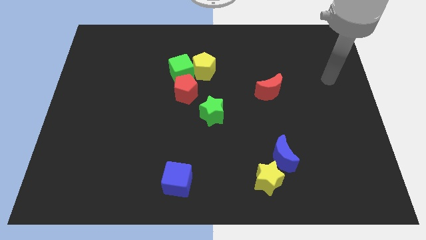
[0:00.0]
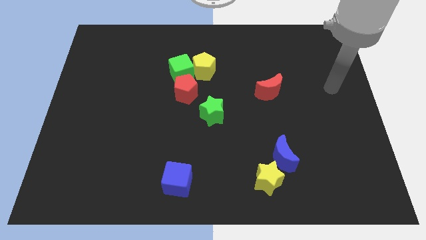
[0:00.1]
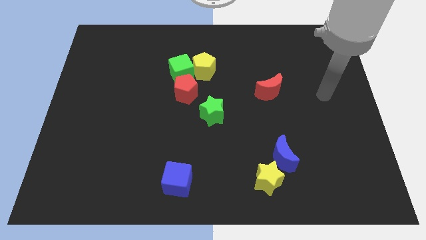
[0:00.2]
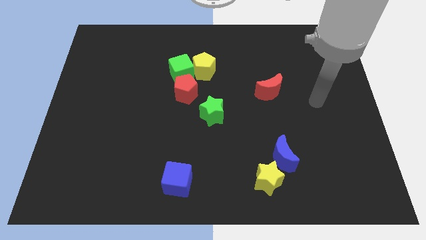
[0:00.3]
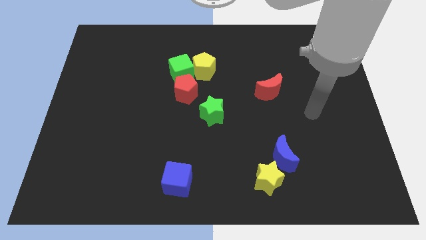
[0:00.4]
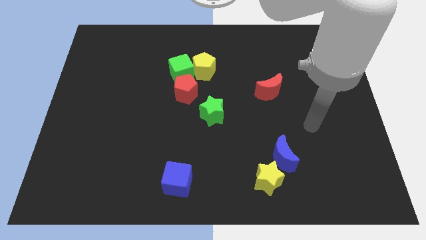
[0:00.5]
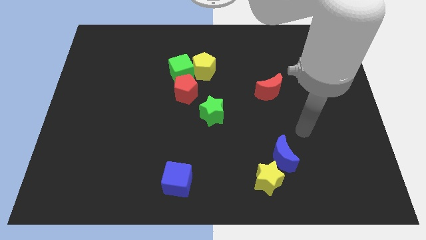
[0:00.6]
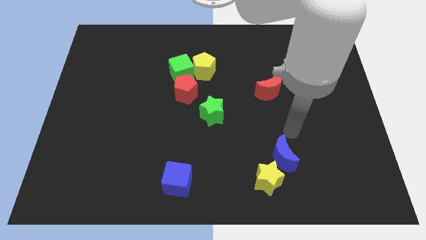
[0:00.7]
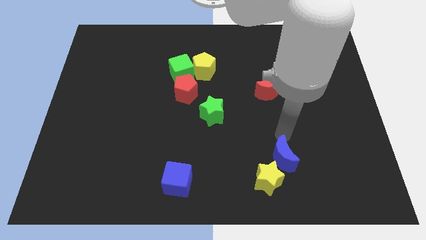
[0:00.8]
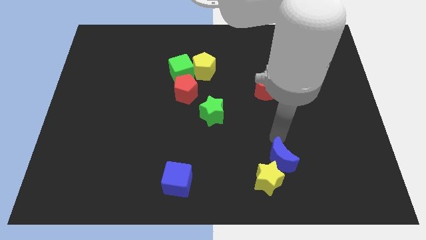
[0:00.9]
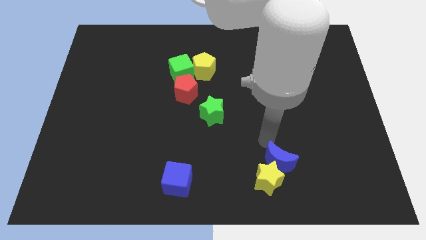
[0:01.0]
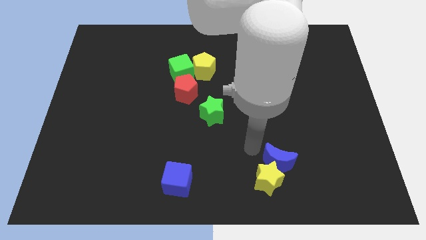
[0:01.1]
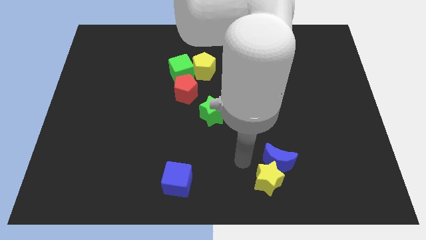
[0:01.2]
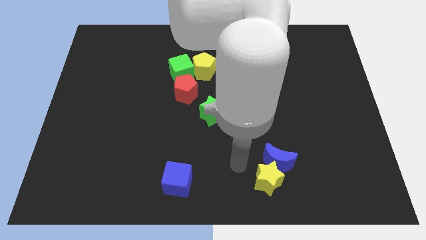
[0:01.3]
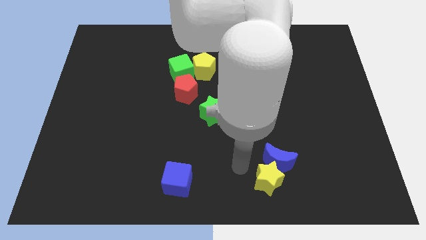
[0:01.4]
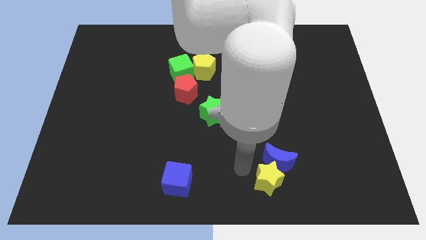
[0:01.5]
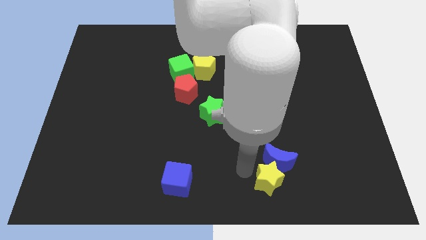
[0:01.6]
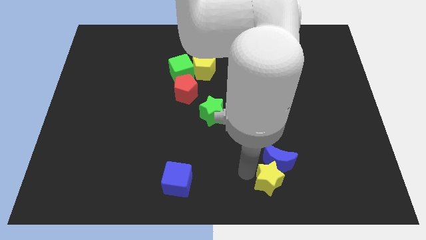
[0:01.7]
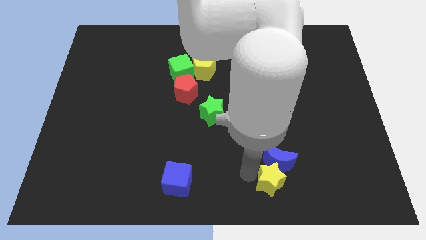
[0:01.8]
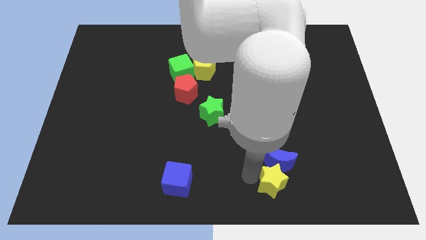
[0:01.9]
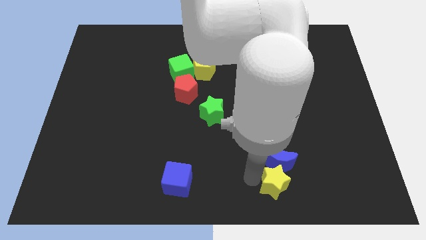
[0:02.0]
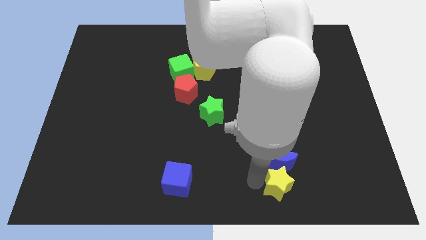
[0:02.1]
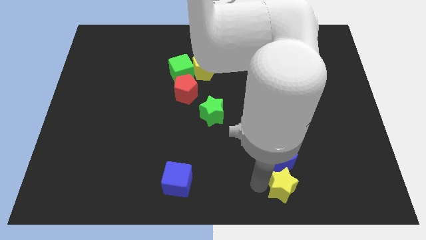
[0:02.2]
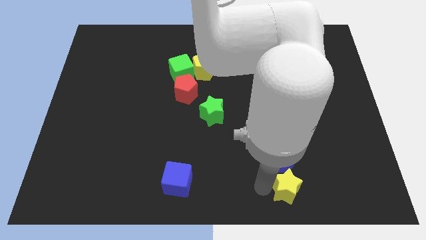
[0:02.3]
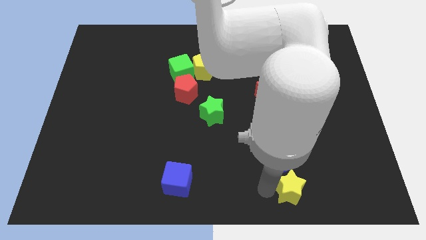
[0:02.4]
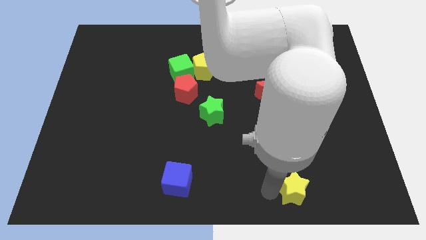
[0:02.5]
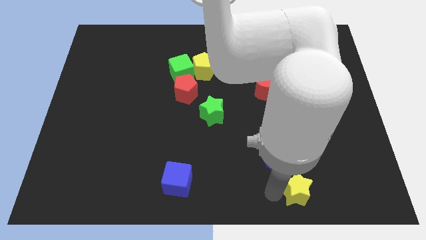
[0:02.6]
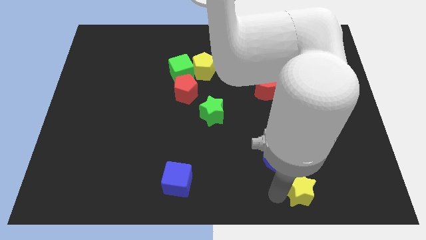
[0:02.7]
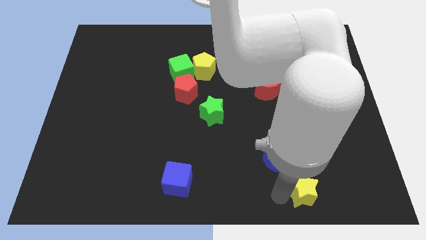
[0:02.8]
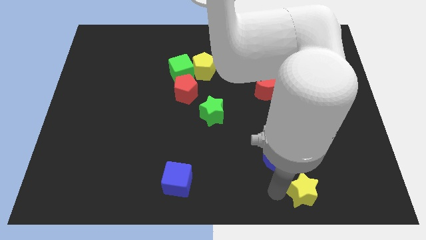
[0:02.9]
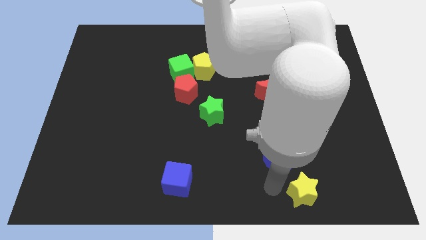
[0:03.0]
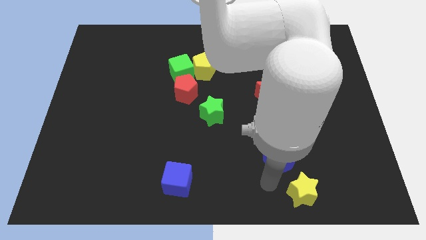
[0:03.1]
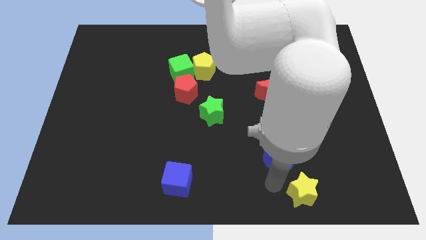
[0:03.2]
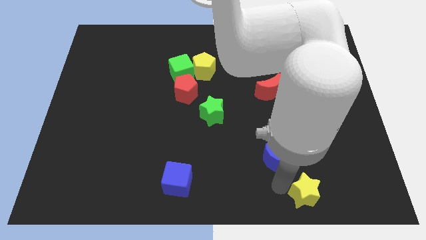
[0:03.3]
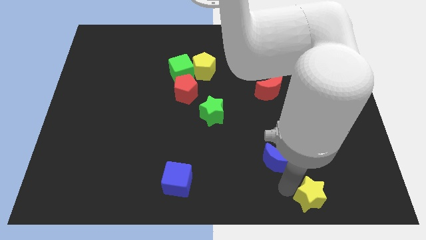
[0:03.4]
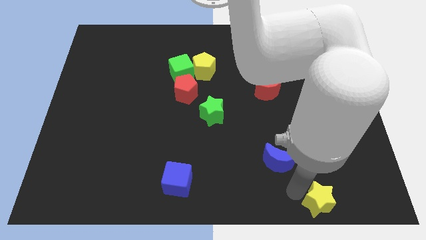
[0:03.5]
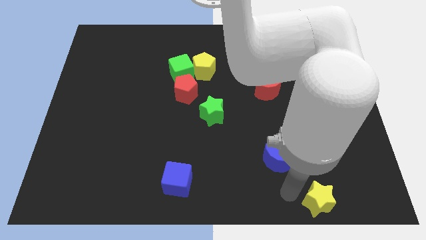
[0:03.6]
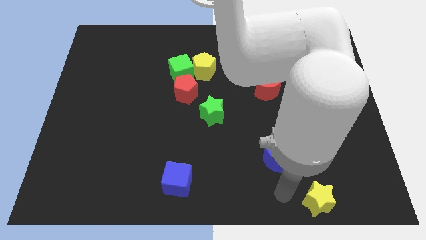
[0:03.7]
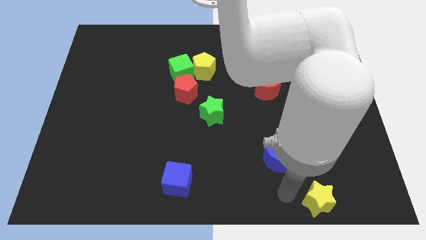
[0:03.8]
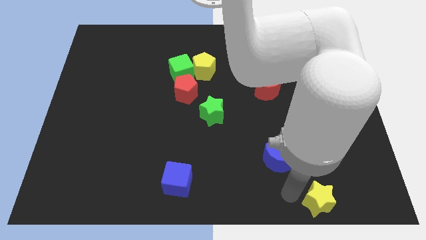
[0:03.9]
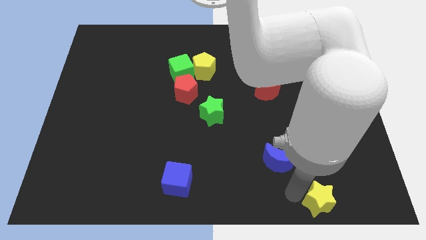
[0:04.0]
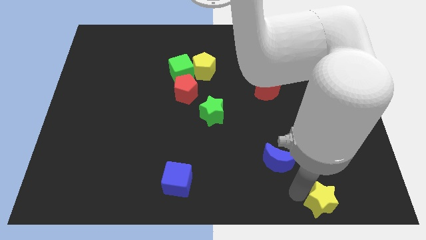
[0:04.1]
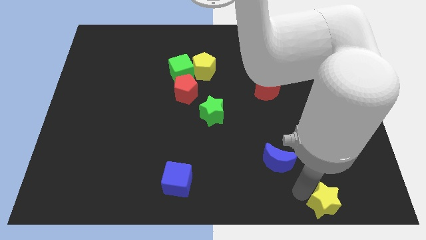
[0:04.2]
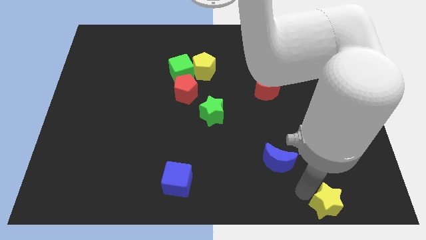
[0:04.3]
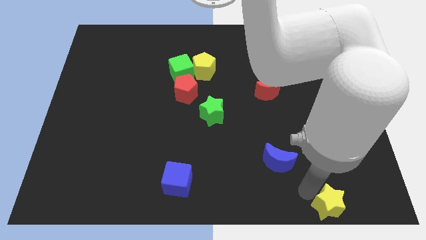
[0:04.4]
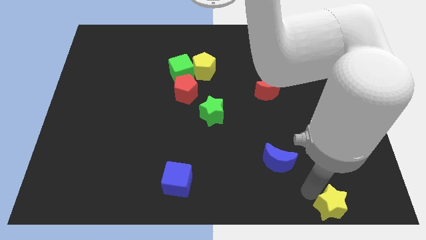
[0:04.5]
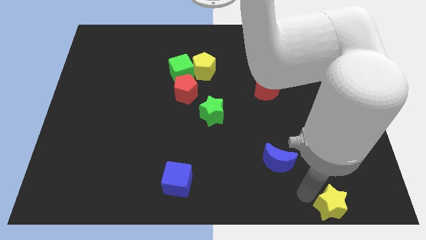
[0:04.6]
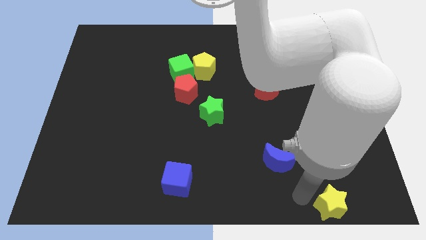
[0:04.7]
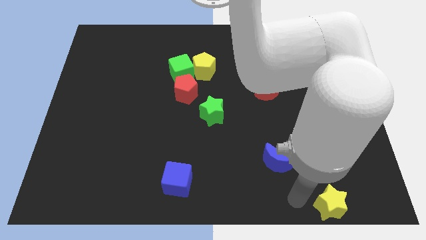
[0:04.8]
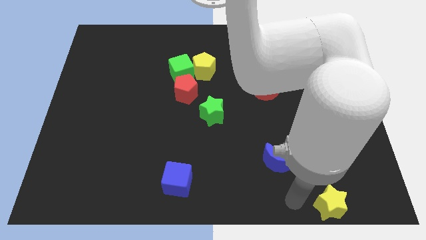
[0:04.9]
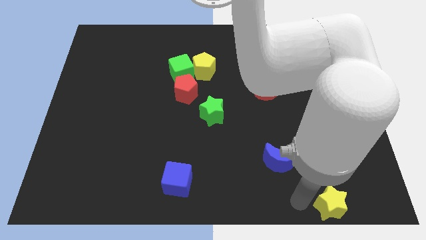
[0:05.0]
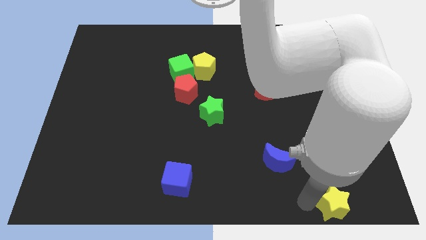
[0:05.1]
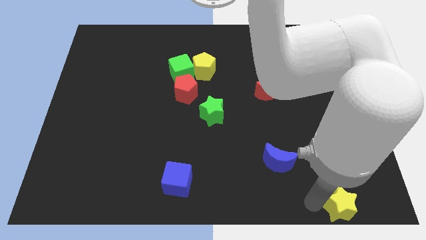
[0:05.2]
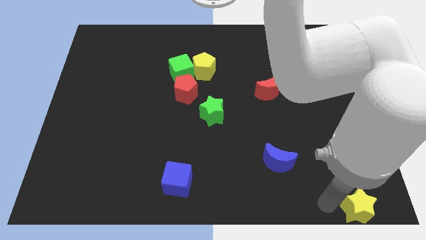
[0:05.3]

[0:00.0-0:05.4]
push the yellow star to the lower right corner
